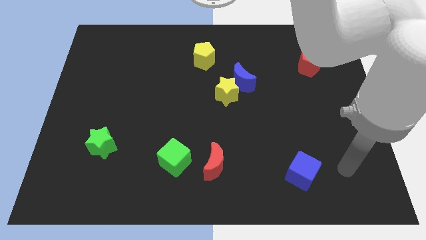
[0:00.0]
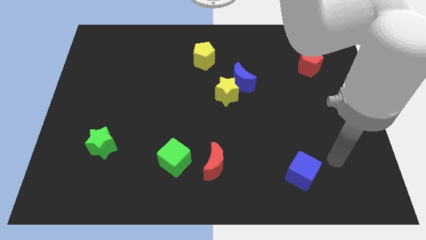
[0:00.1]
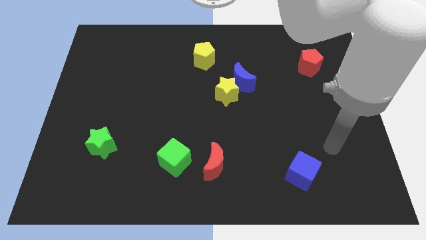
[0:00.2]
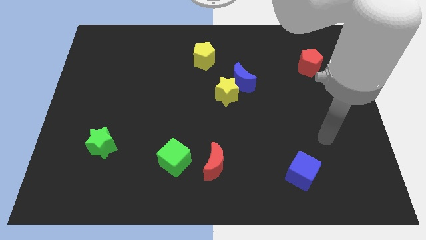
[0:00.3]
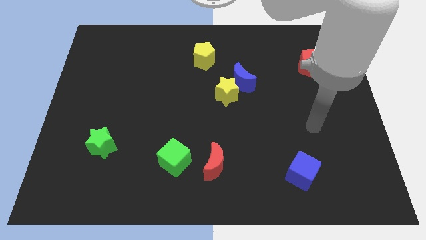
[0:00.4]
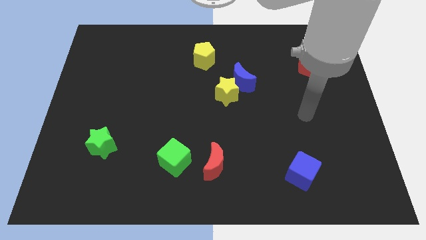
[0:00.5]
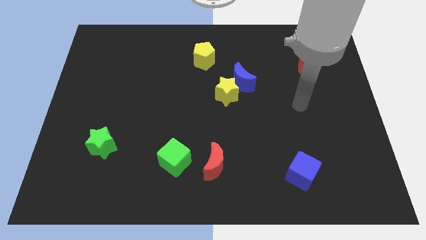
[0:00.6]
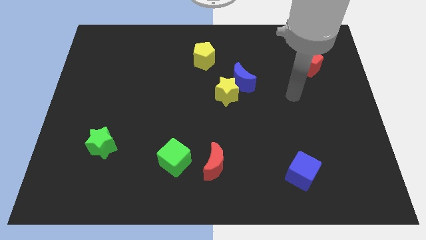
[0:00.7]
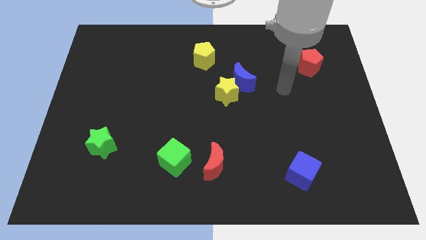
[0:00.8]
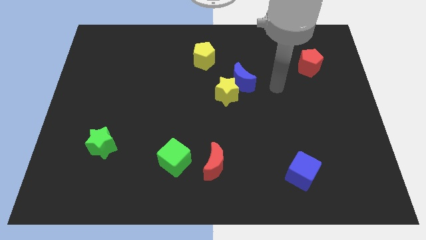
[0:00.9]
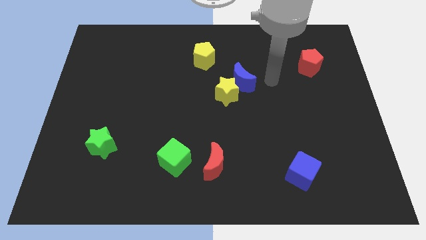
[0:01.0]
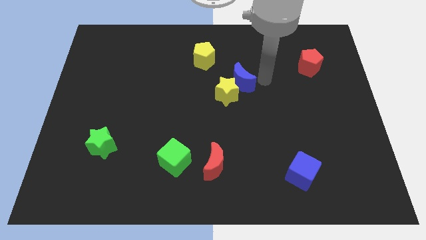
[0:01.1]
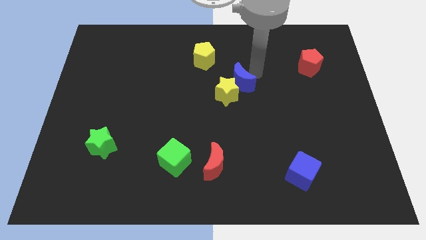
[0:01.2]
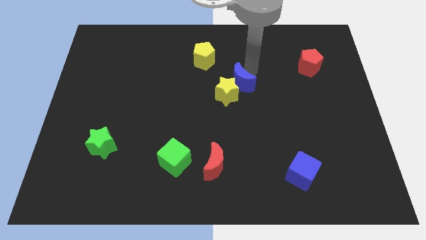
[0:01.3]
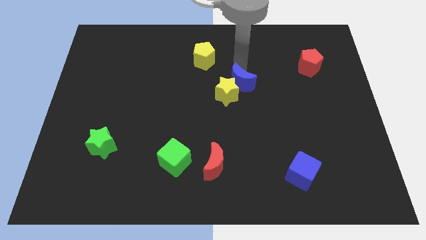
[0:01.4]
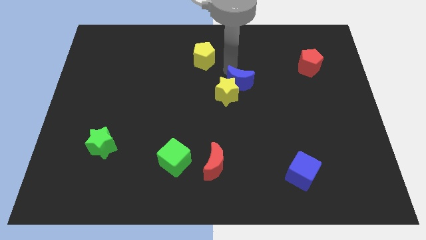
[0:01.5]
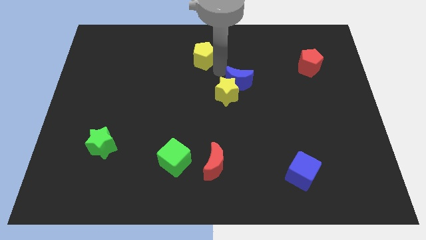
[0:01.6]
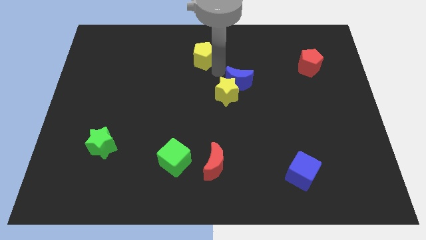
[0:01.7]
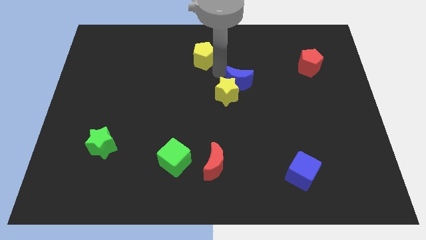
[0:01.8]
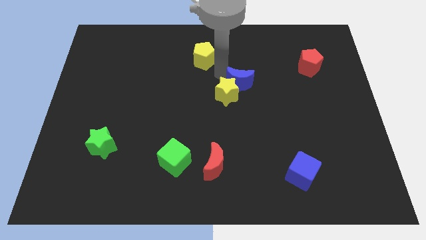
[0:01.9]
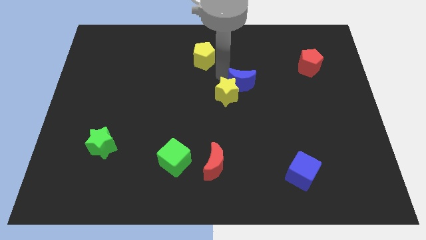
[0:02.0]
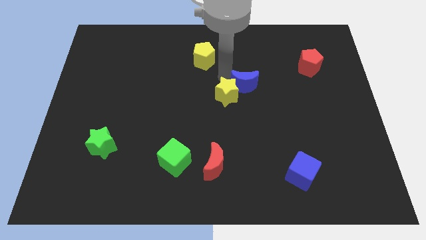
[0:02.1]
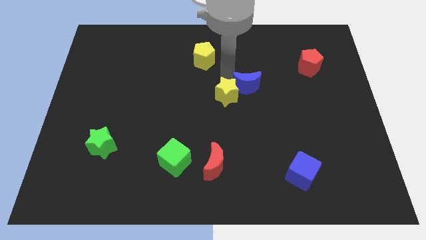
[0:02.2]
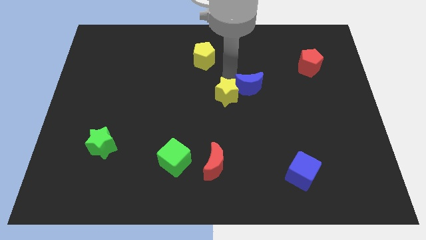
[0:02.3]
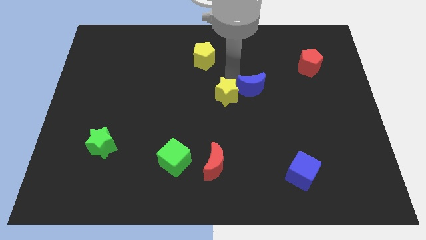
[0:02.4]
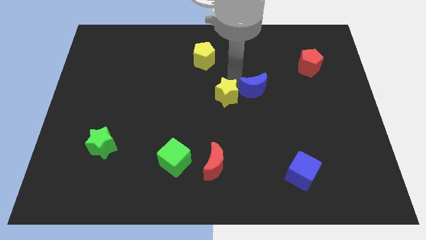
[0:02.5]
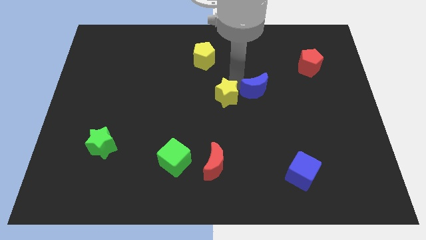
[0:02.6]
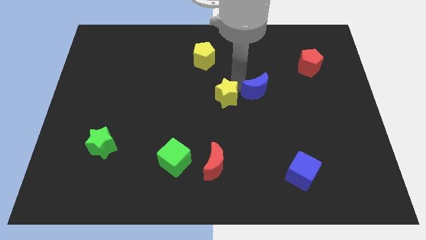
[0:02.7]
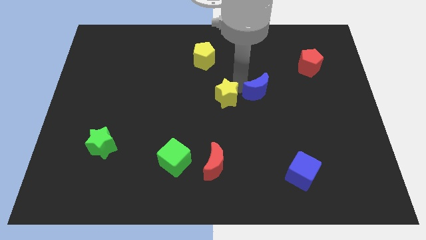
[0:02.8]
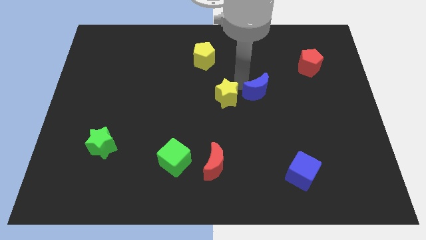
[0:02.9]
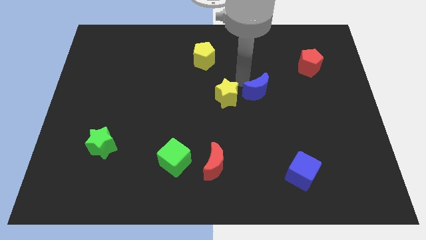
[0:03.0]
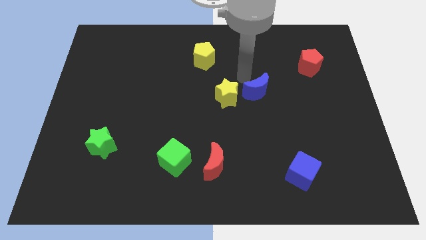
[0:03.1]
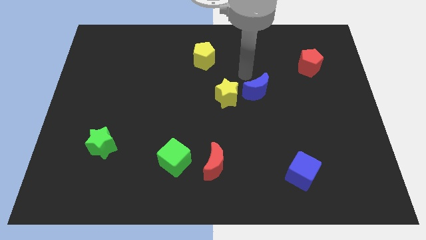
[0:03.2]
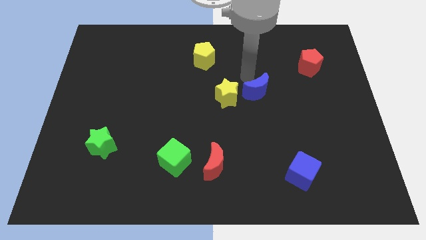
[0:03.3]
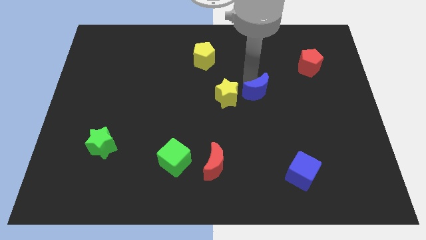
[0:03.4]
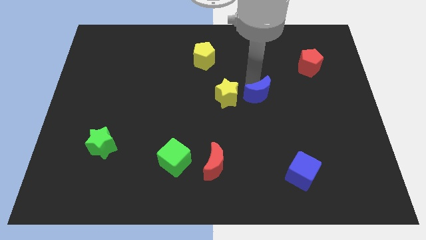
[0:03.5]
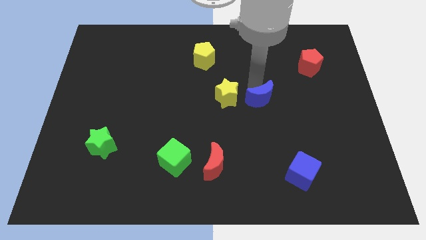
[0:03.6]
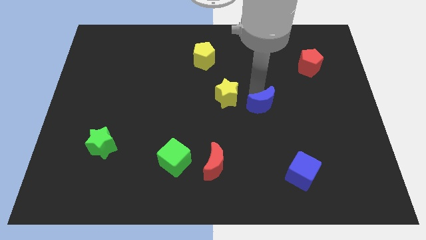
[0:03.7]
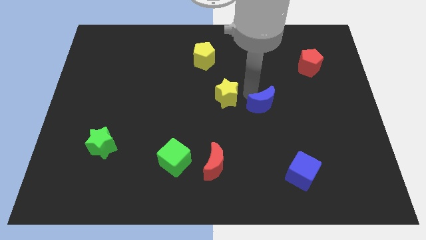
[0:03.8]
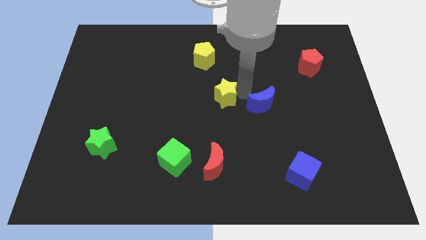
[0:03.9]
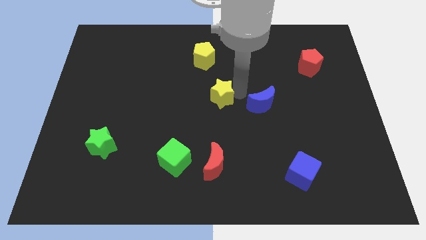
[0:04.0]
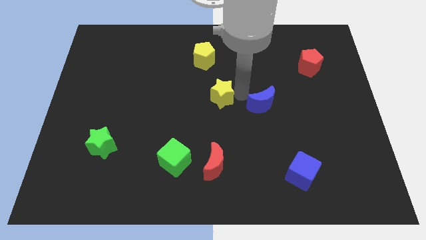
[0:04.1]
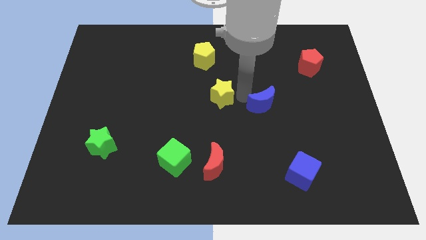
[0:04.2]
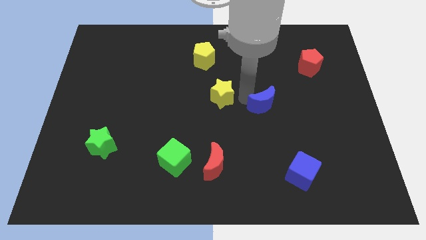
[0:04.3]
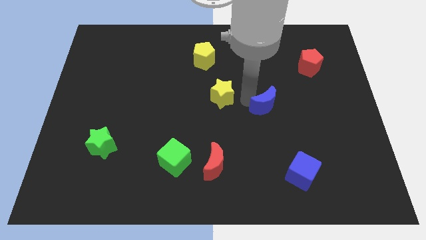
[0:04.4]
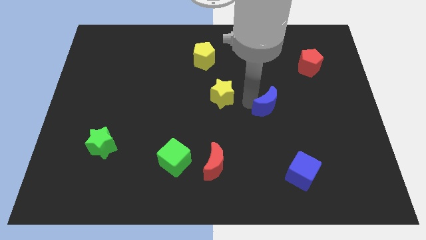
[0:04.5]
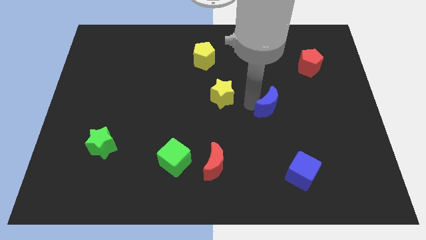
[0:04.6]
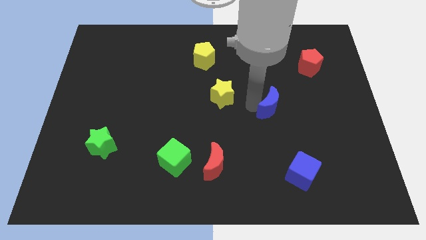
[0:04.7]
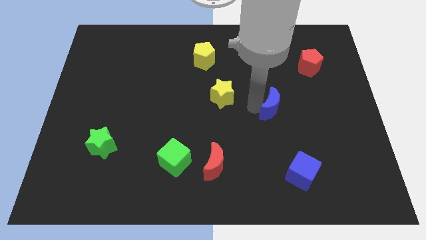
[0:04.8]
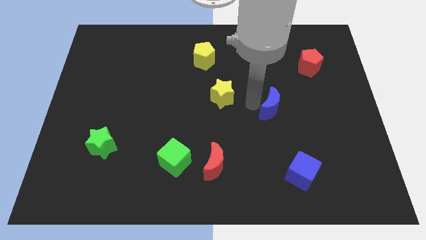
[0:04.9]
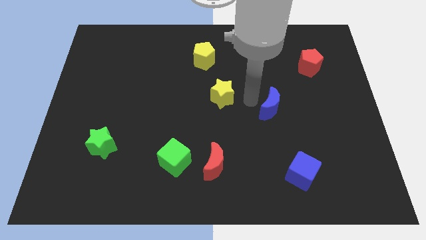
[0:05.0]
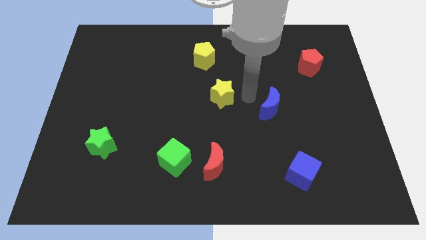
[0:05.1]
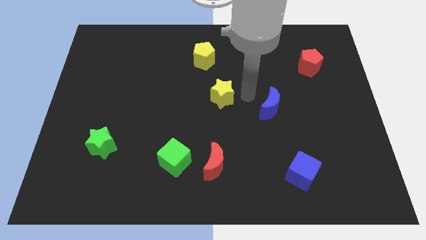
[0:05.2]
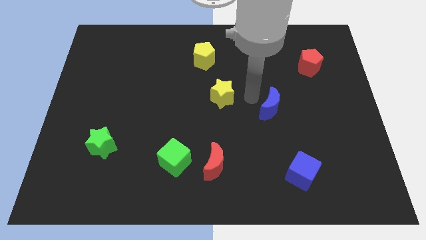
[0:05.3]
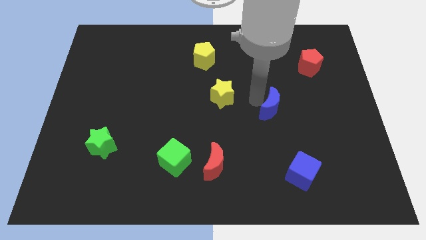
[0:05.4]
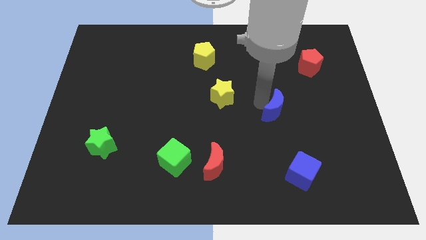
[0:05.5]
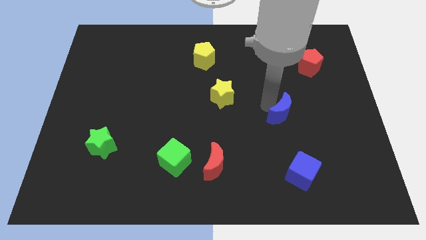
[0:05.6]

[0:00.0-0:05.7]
move the blue moon above the blue cube
